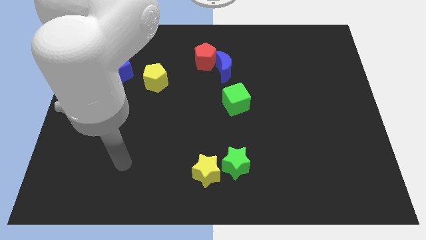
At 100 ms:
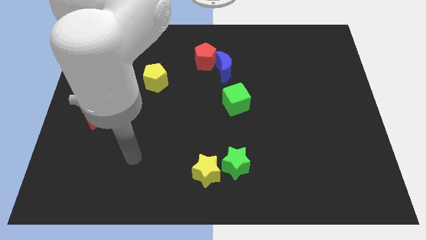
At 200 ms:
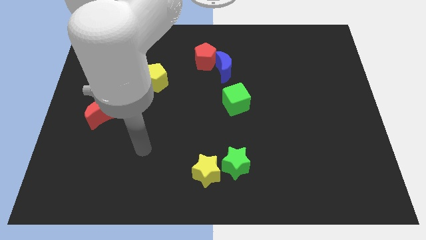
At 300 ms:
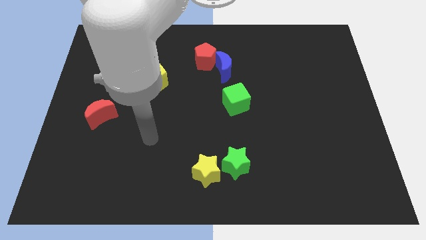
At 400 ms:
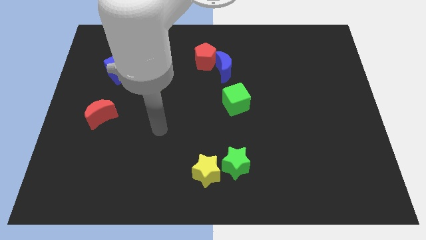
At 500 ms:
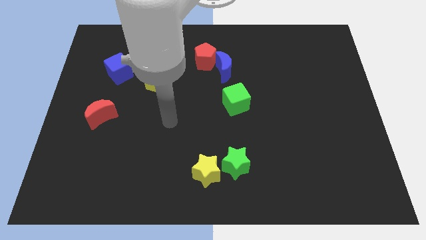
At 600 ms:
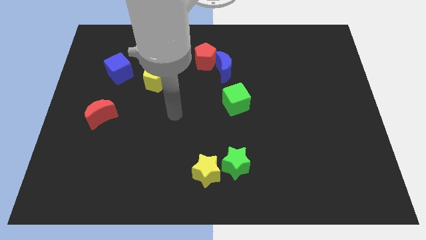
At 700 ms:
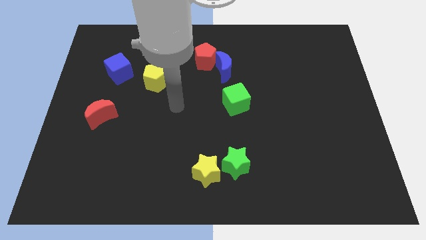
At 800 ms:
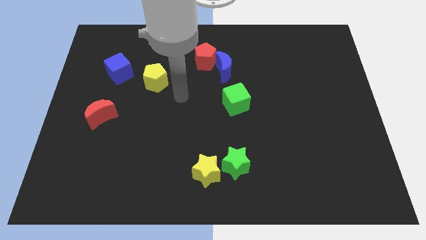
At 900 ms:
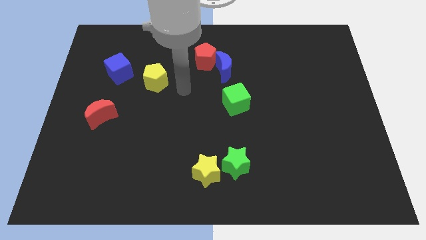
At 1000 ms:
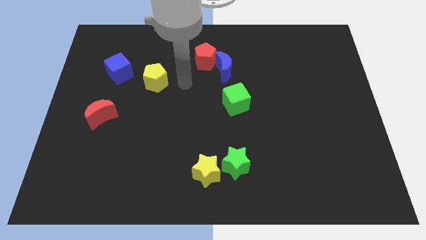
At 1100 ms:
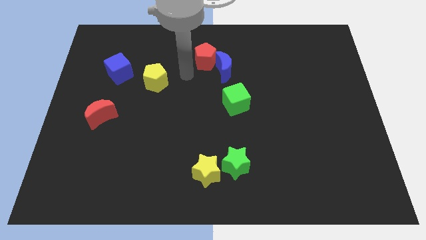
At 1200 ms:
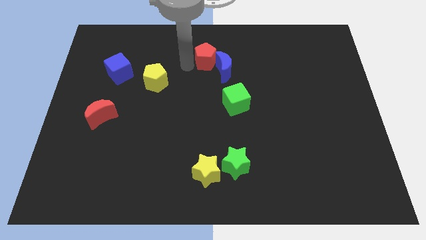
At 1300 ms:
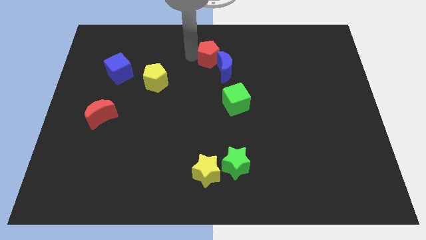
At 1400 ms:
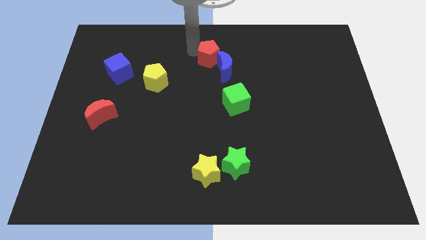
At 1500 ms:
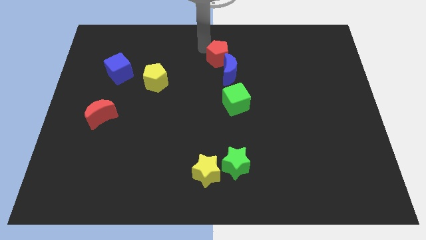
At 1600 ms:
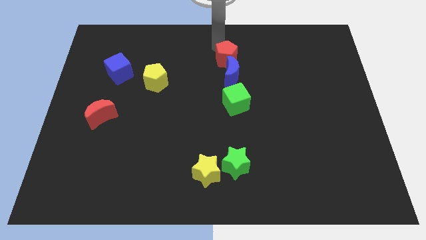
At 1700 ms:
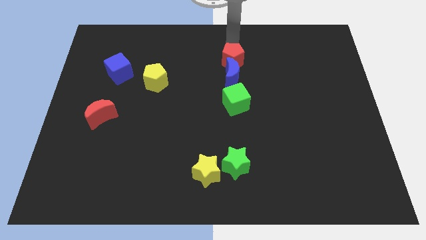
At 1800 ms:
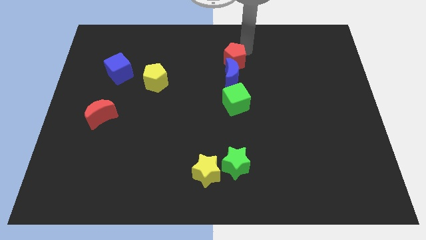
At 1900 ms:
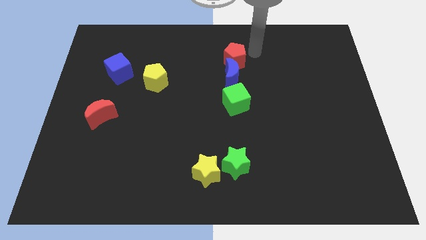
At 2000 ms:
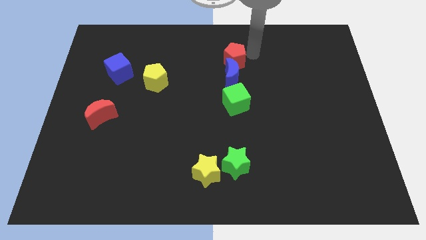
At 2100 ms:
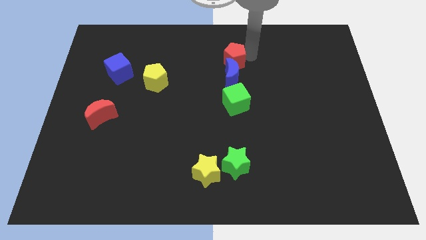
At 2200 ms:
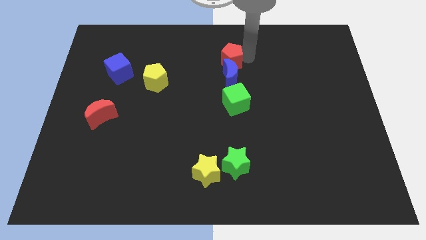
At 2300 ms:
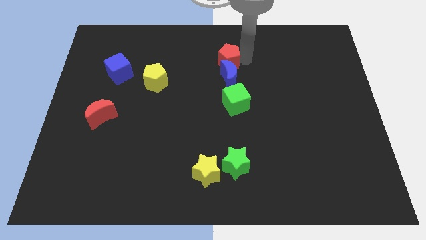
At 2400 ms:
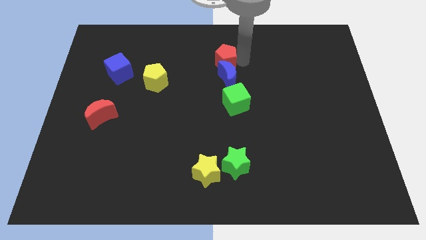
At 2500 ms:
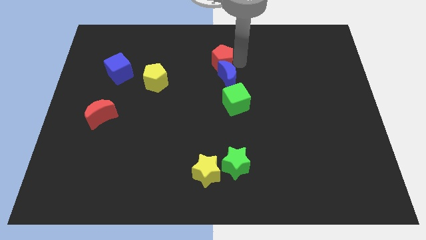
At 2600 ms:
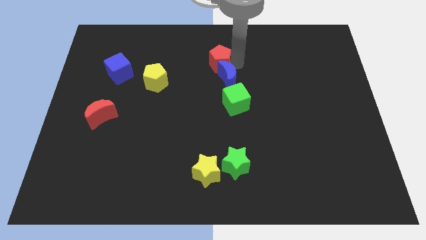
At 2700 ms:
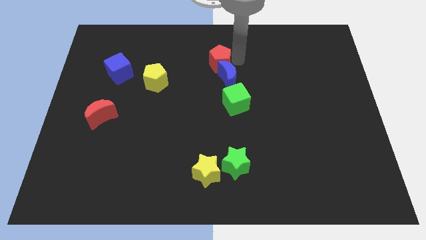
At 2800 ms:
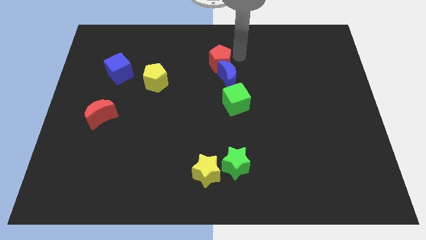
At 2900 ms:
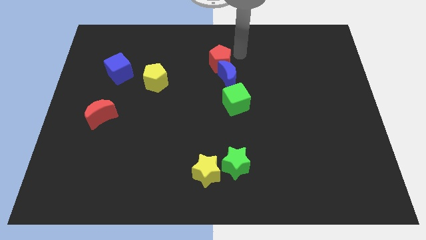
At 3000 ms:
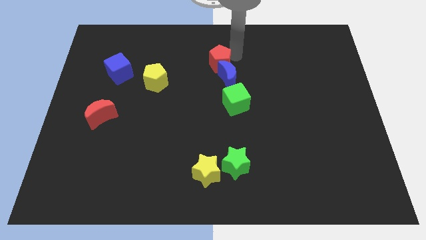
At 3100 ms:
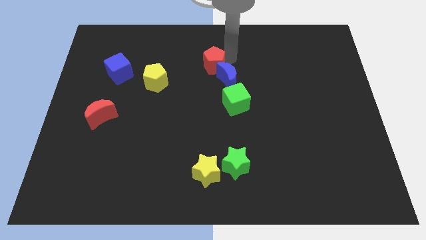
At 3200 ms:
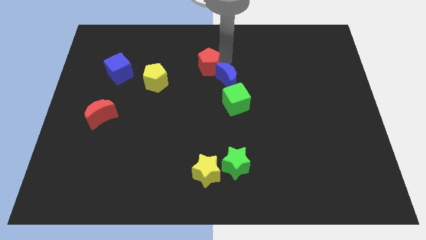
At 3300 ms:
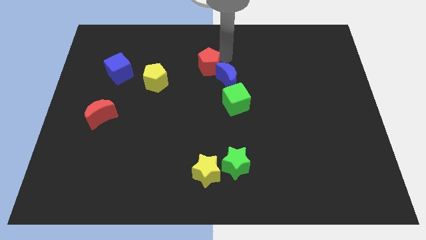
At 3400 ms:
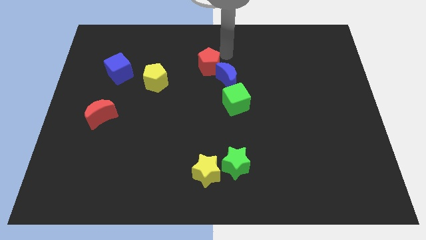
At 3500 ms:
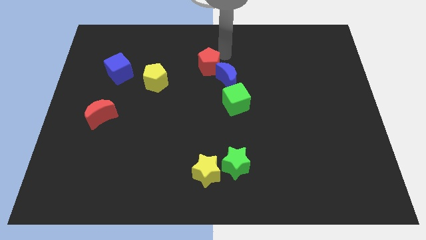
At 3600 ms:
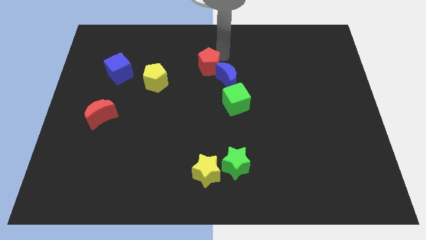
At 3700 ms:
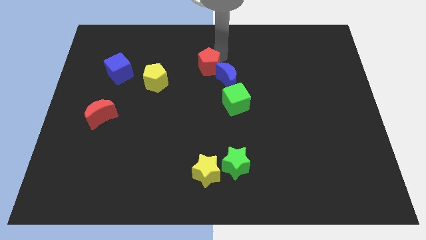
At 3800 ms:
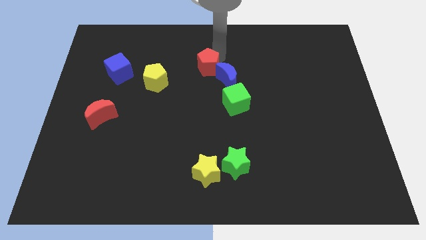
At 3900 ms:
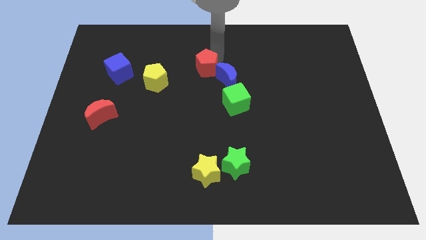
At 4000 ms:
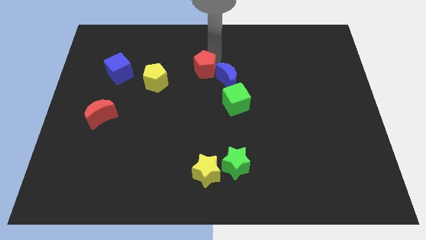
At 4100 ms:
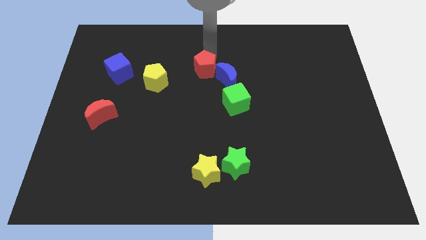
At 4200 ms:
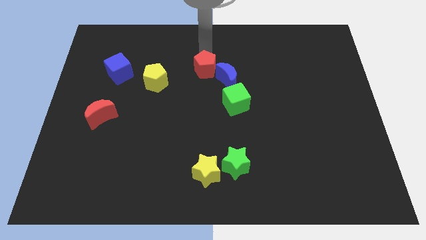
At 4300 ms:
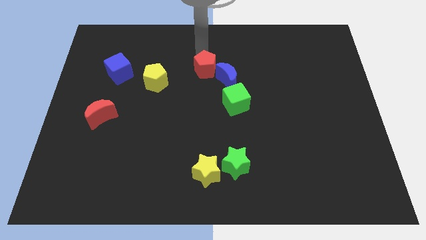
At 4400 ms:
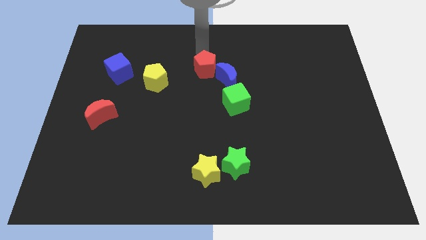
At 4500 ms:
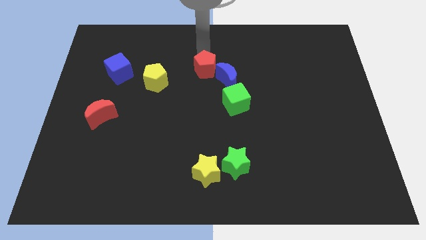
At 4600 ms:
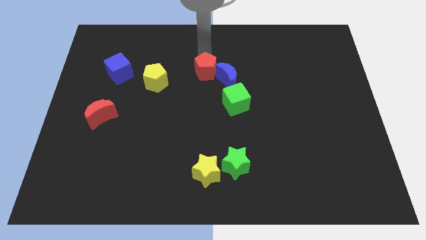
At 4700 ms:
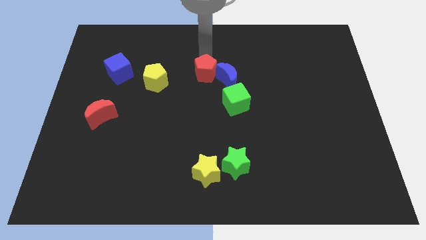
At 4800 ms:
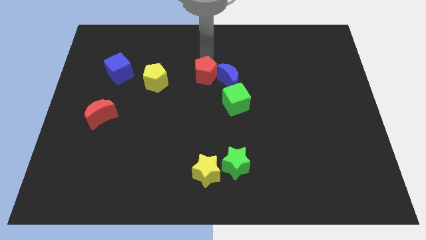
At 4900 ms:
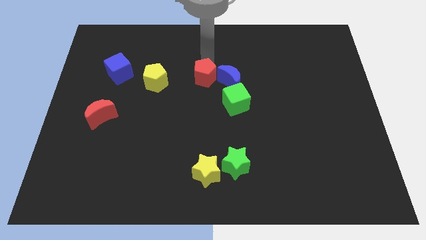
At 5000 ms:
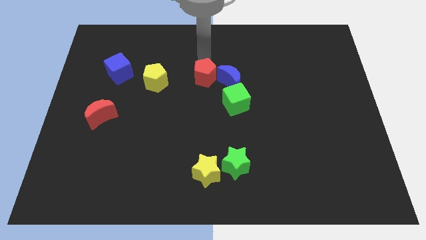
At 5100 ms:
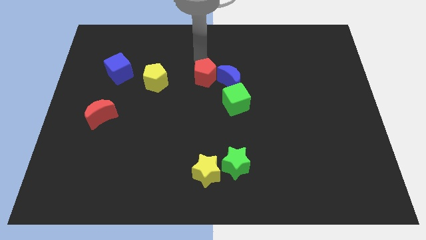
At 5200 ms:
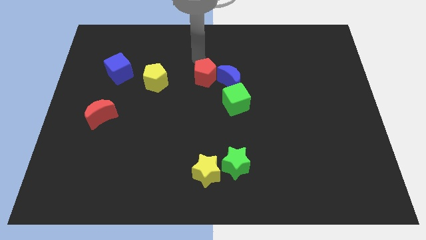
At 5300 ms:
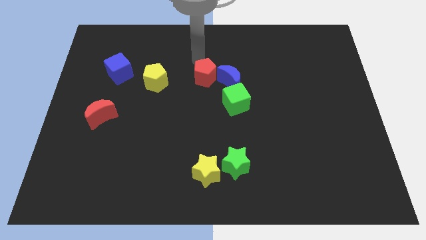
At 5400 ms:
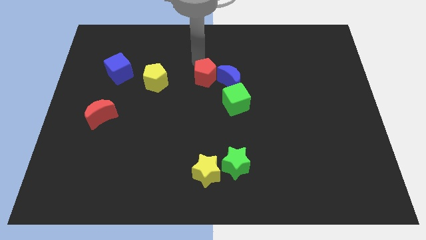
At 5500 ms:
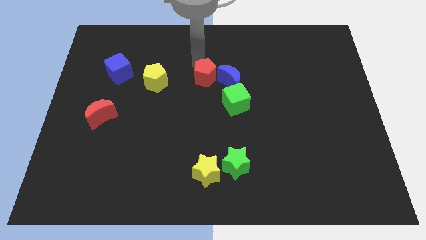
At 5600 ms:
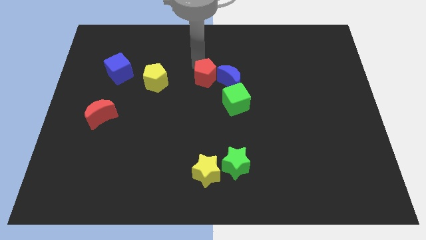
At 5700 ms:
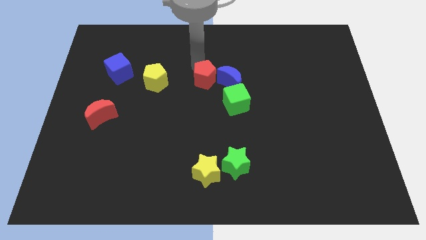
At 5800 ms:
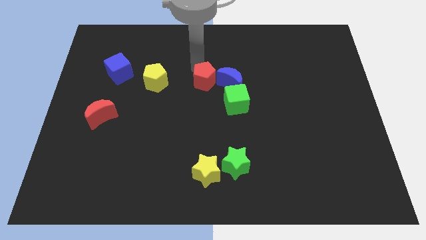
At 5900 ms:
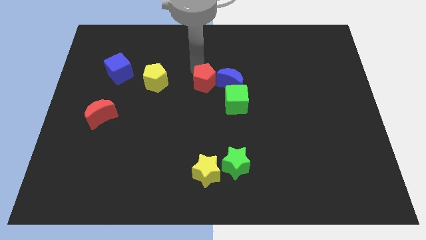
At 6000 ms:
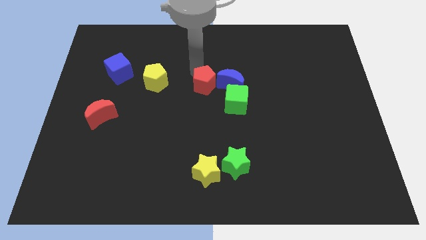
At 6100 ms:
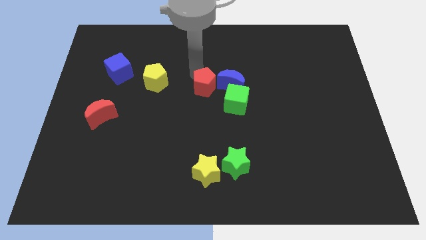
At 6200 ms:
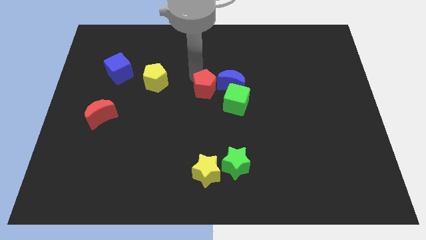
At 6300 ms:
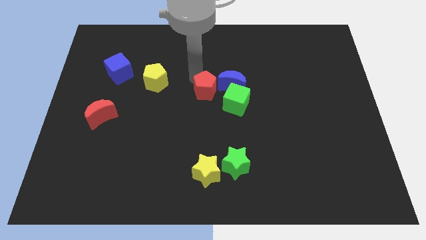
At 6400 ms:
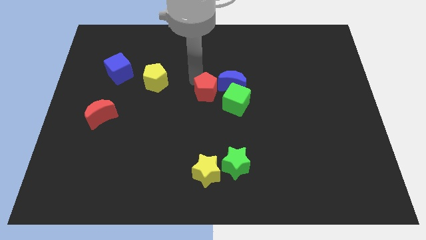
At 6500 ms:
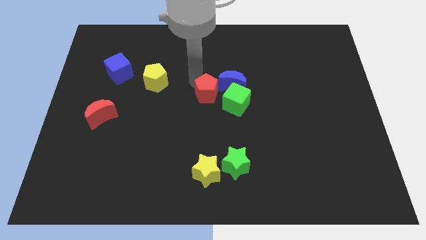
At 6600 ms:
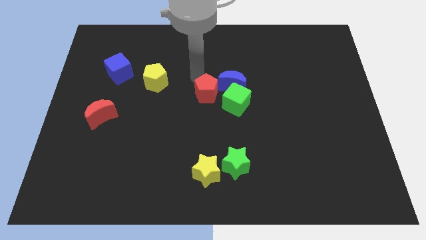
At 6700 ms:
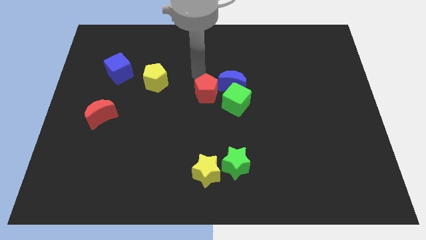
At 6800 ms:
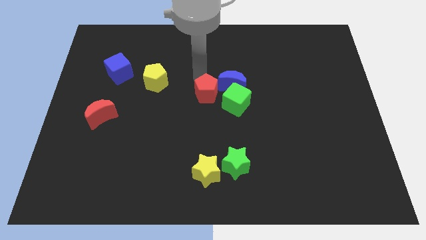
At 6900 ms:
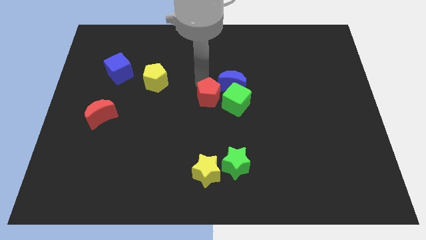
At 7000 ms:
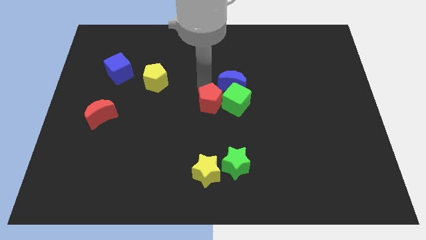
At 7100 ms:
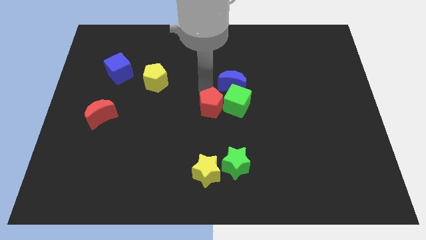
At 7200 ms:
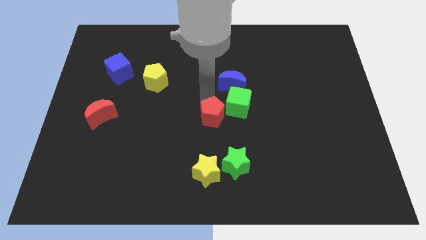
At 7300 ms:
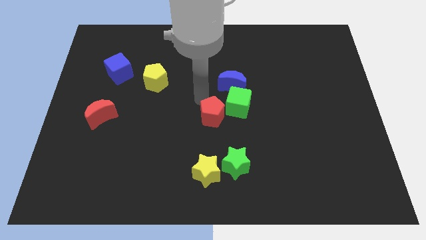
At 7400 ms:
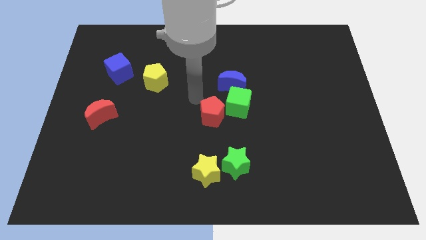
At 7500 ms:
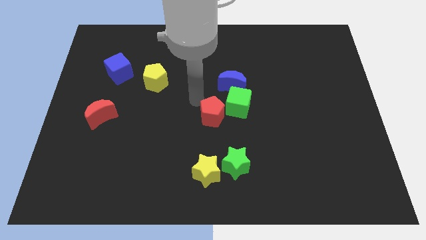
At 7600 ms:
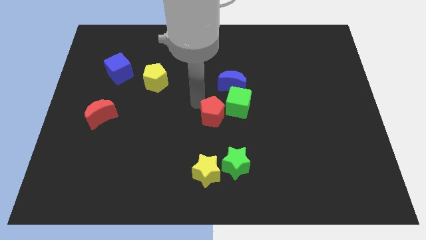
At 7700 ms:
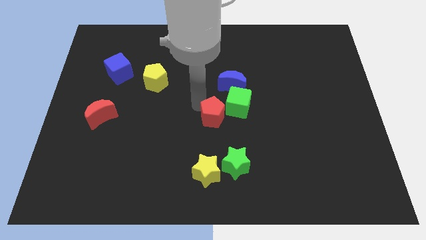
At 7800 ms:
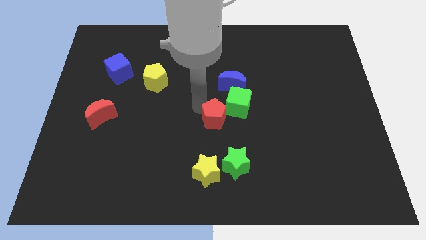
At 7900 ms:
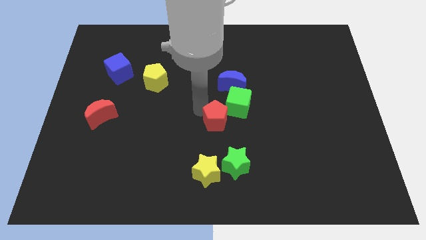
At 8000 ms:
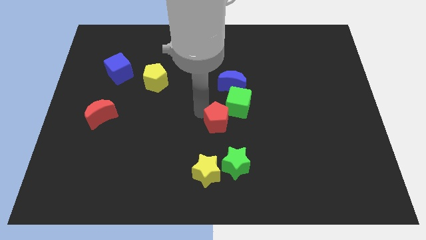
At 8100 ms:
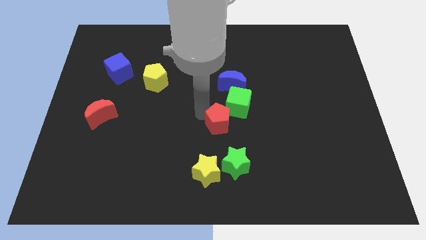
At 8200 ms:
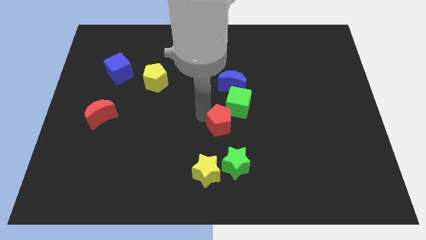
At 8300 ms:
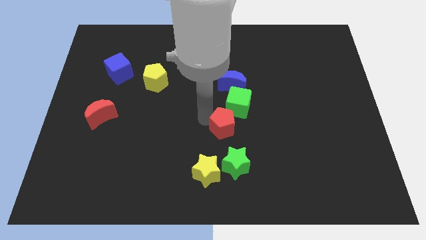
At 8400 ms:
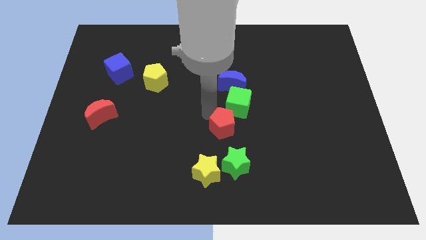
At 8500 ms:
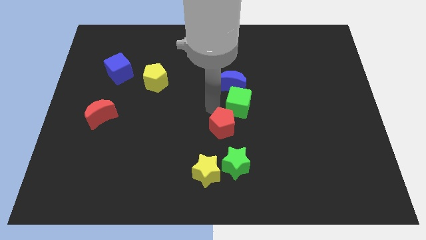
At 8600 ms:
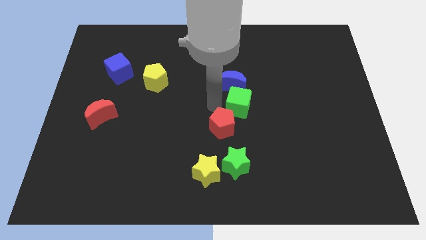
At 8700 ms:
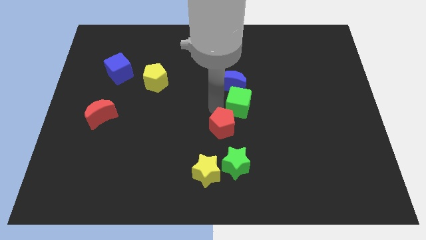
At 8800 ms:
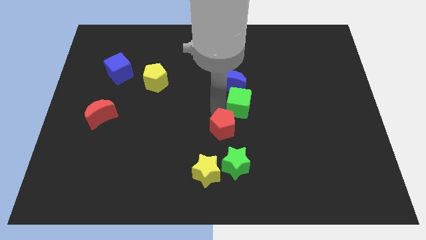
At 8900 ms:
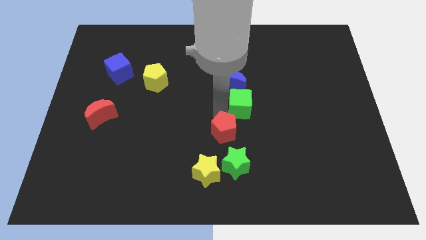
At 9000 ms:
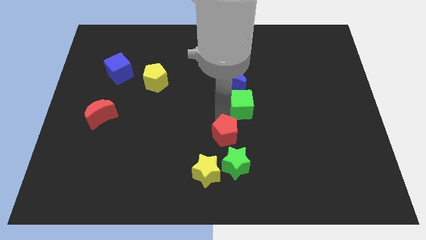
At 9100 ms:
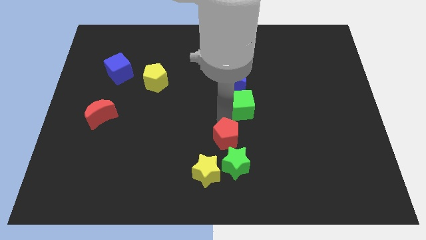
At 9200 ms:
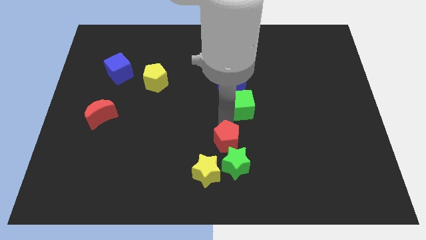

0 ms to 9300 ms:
put the red pentagon close to the green star
